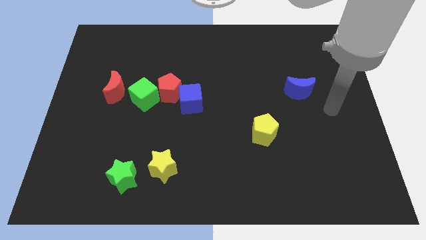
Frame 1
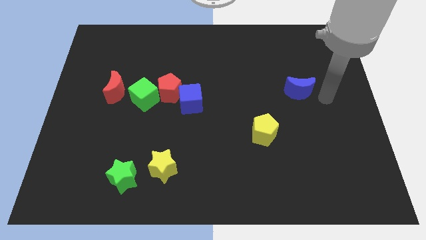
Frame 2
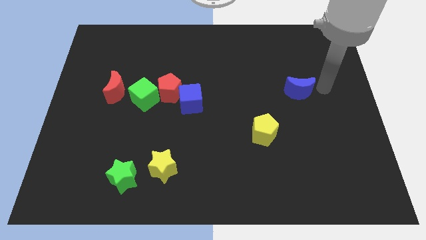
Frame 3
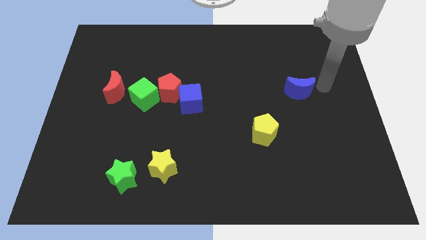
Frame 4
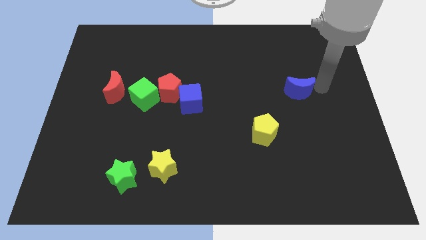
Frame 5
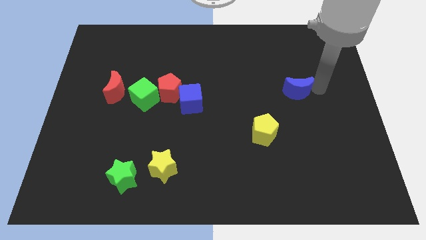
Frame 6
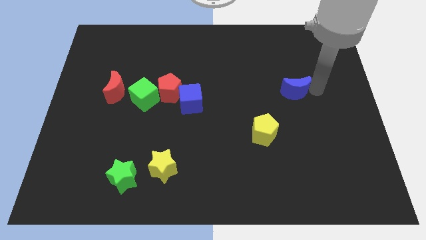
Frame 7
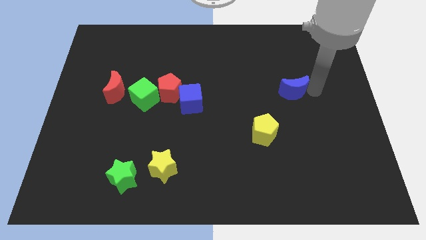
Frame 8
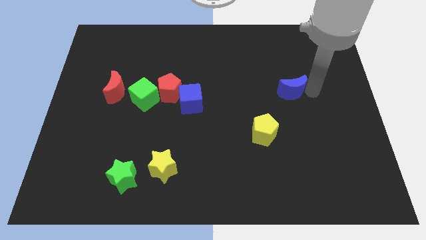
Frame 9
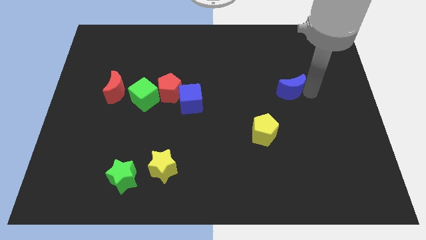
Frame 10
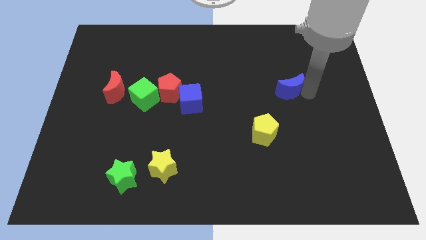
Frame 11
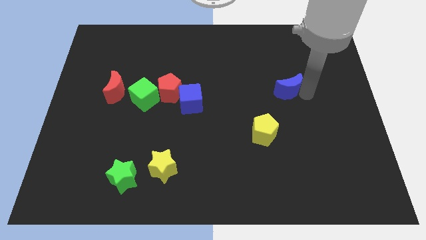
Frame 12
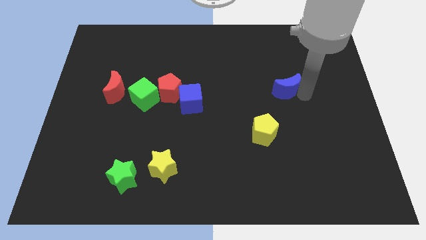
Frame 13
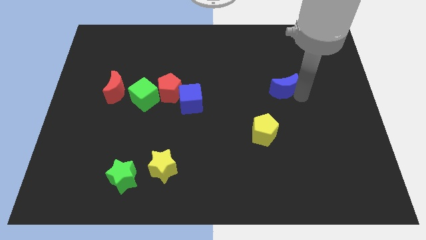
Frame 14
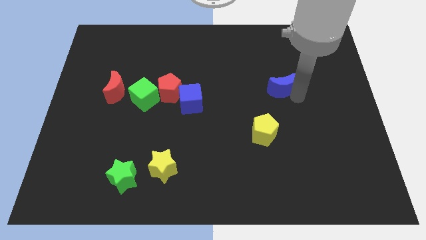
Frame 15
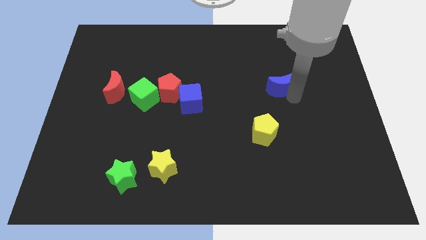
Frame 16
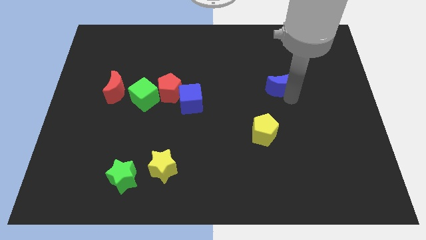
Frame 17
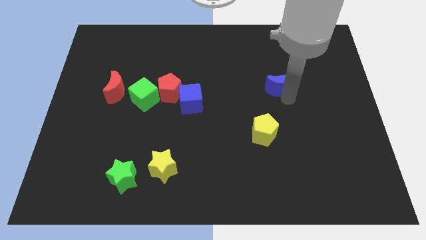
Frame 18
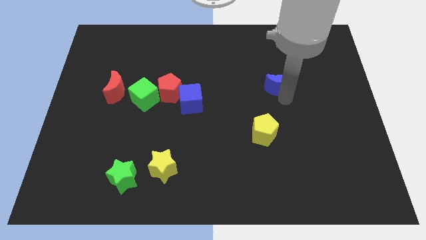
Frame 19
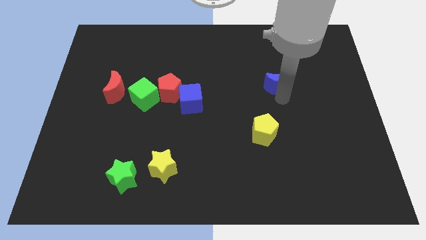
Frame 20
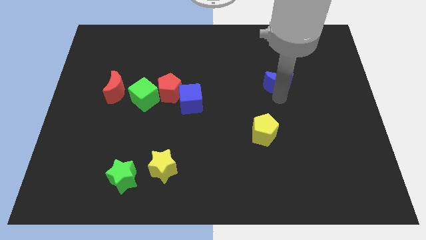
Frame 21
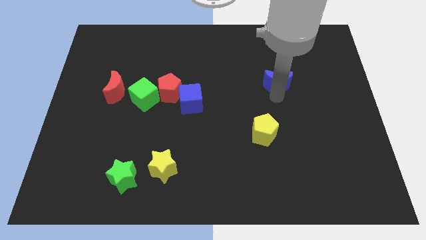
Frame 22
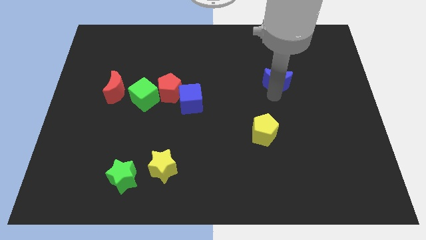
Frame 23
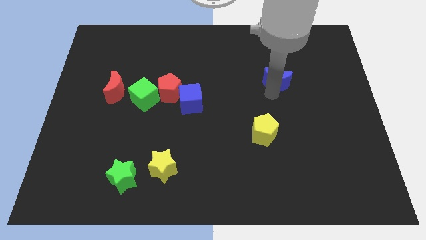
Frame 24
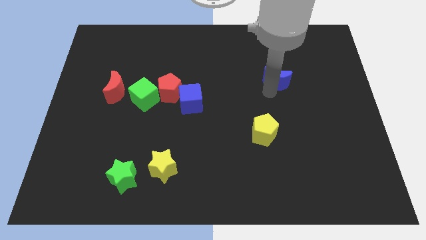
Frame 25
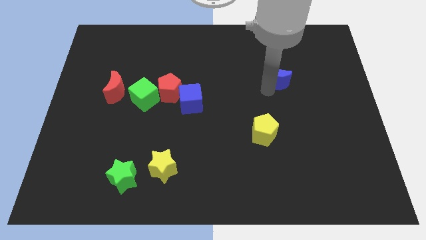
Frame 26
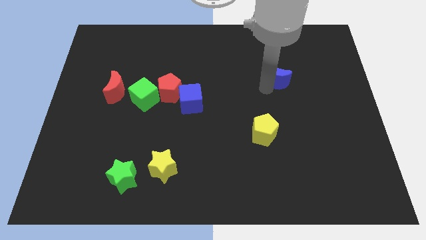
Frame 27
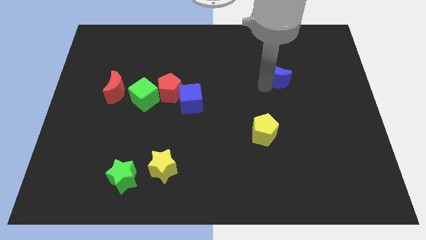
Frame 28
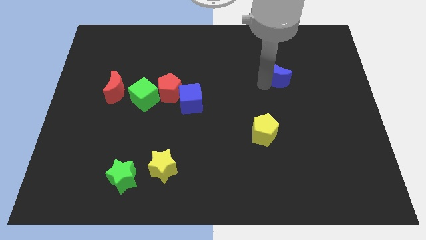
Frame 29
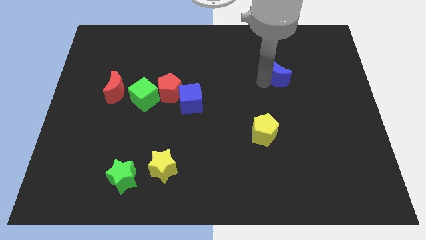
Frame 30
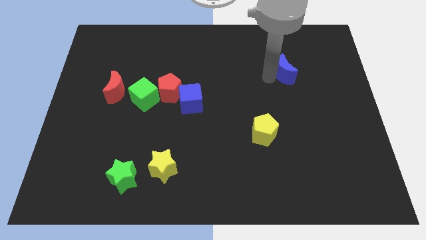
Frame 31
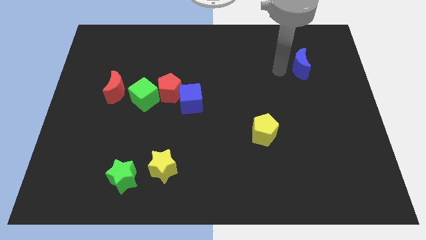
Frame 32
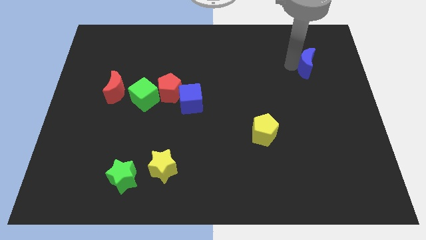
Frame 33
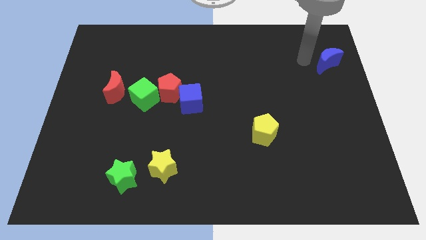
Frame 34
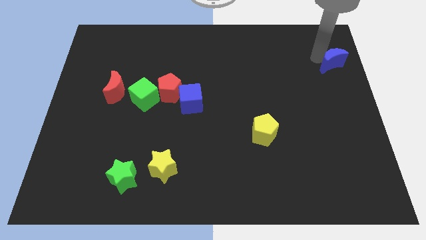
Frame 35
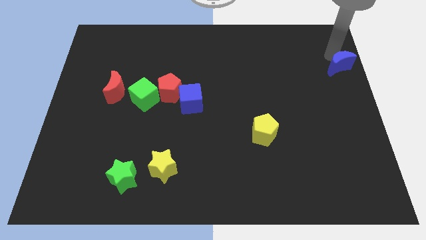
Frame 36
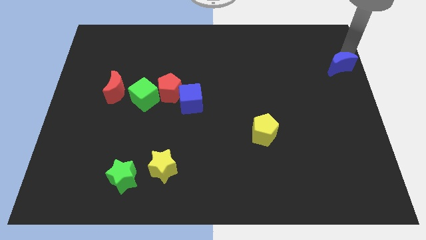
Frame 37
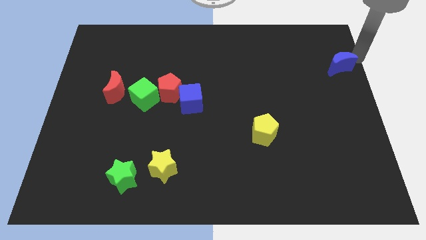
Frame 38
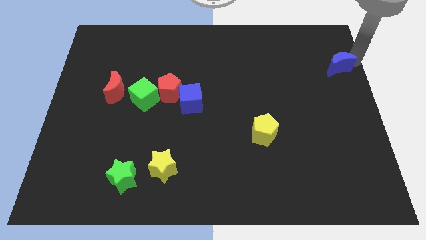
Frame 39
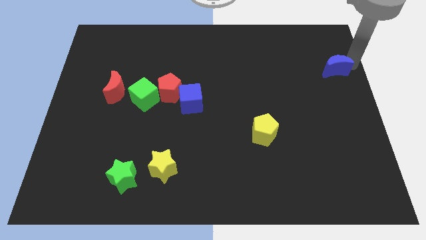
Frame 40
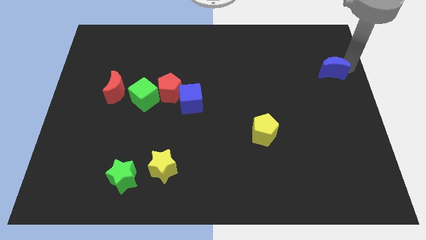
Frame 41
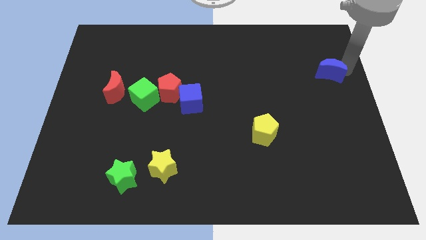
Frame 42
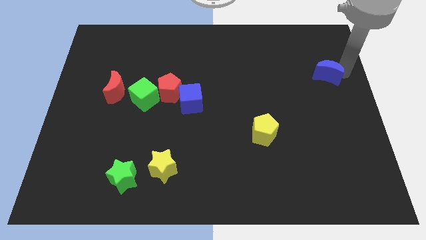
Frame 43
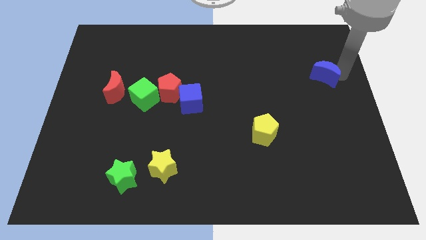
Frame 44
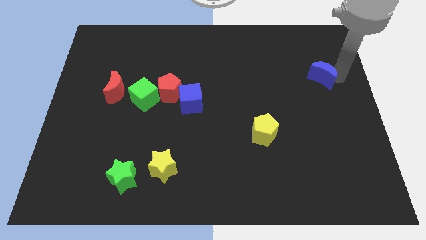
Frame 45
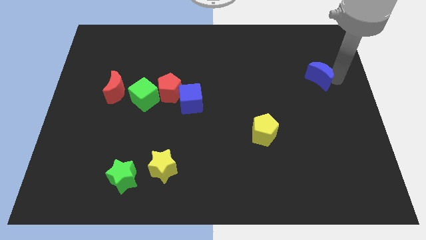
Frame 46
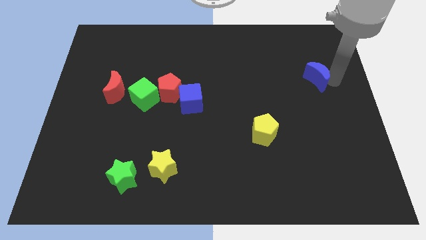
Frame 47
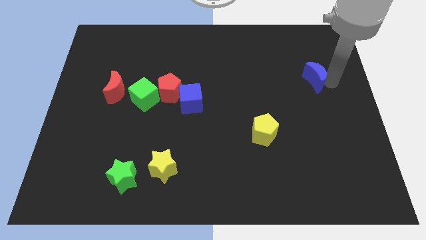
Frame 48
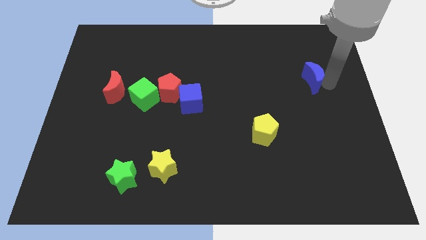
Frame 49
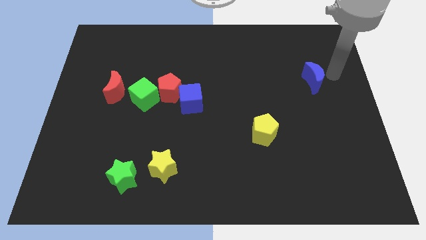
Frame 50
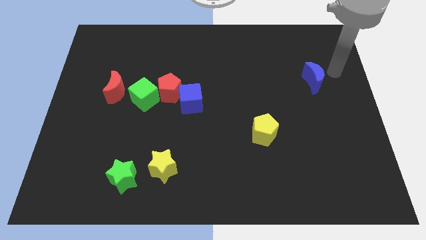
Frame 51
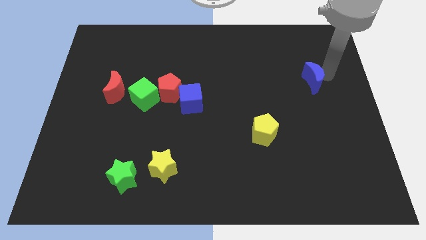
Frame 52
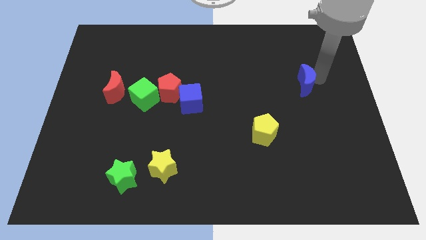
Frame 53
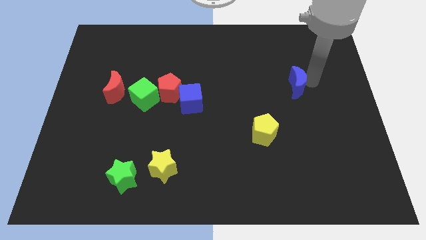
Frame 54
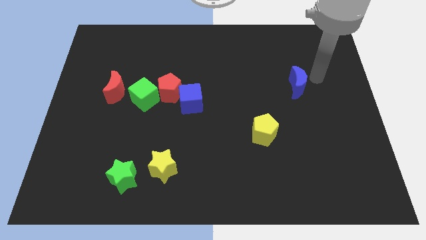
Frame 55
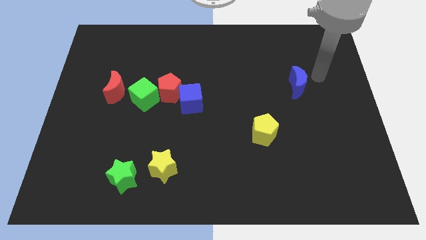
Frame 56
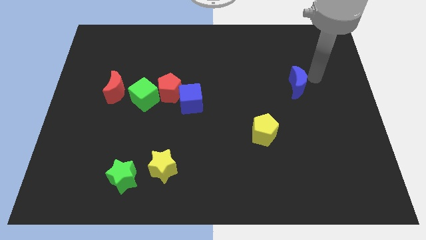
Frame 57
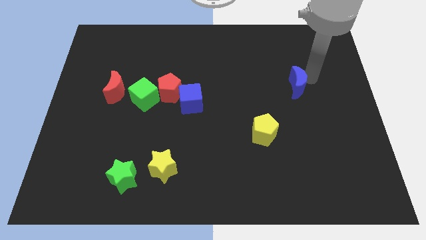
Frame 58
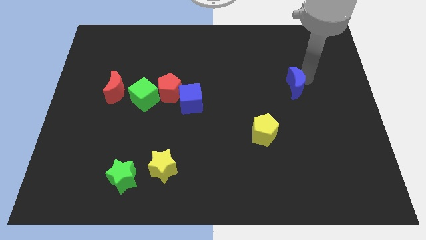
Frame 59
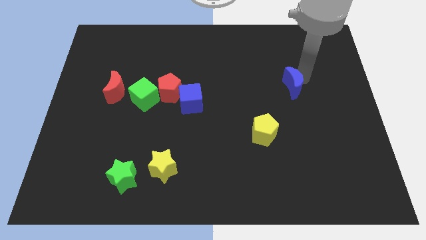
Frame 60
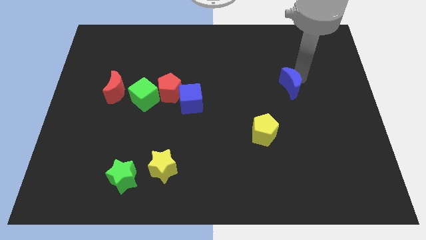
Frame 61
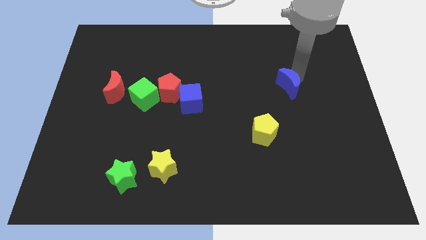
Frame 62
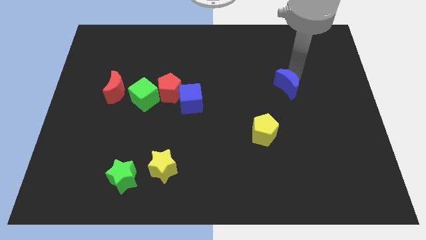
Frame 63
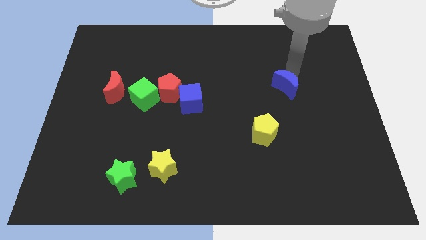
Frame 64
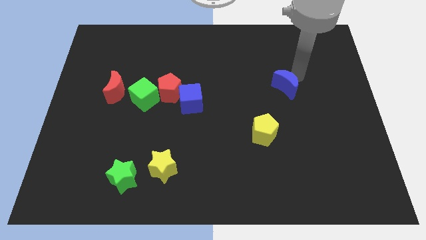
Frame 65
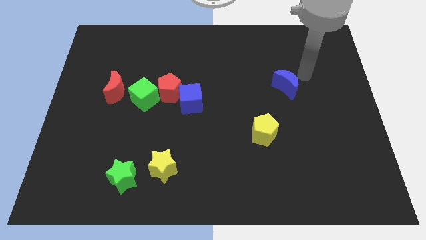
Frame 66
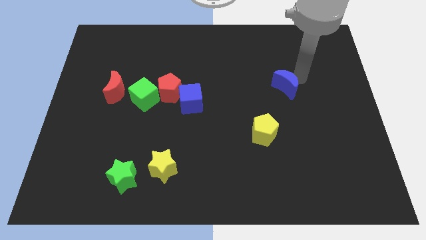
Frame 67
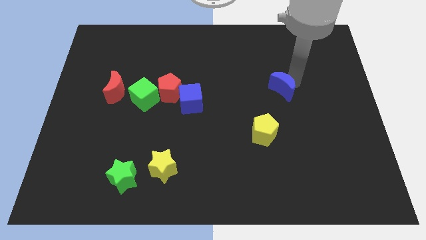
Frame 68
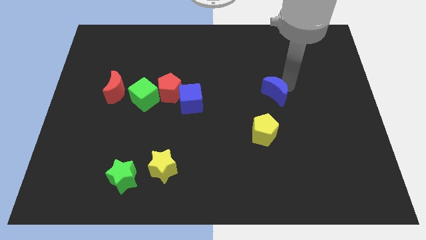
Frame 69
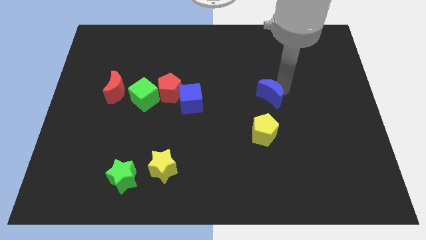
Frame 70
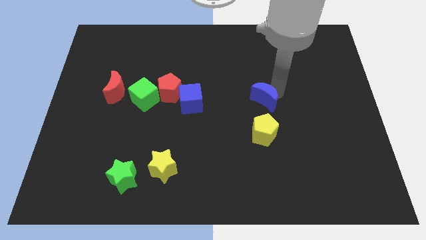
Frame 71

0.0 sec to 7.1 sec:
slide the blue moon downwards and left a little

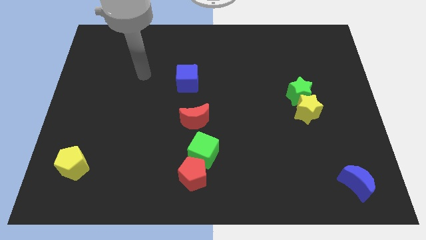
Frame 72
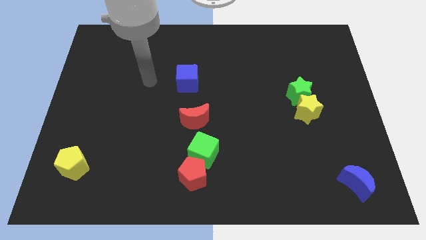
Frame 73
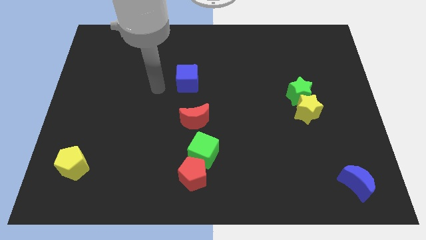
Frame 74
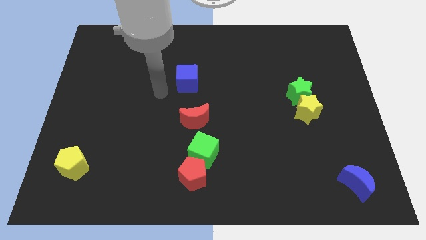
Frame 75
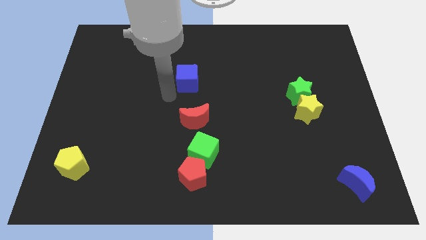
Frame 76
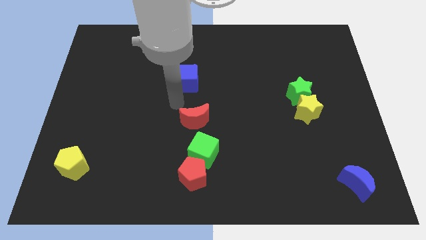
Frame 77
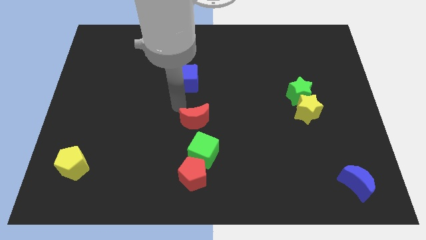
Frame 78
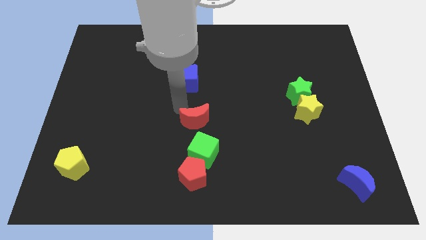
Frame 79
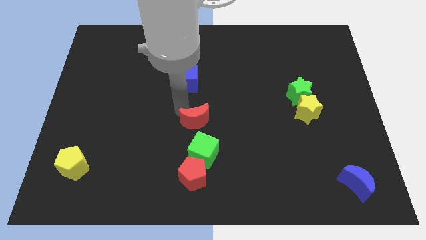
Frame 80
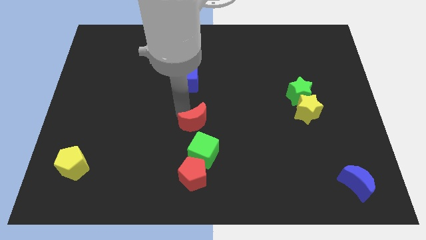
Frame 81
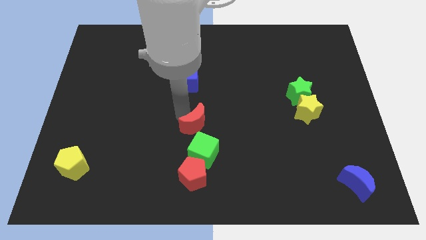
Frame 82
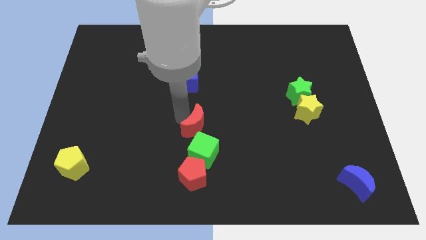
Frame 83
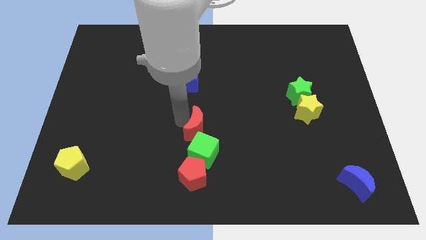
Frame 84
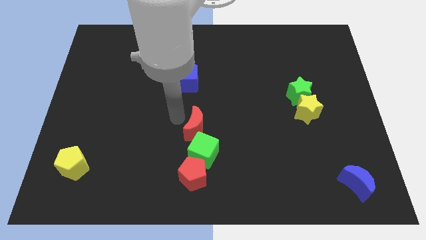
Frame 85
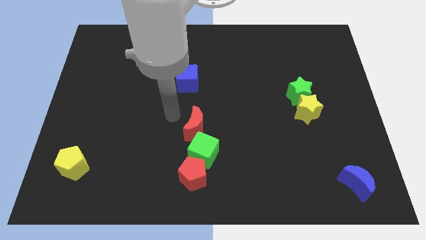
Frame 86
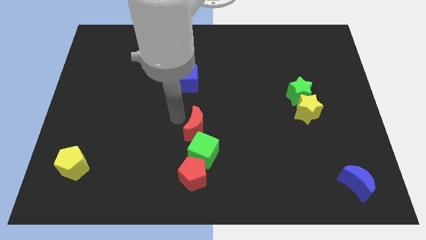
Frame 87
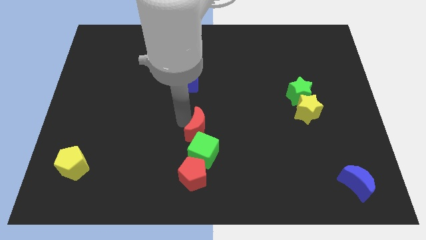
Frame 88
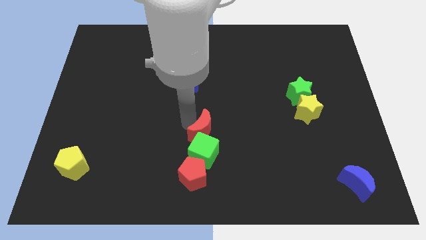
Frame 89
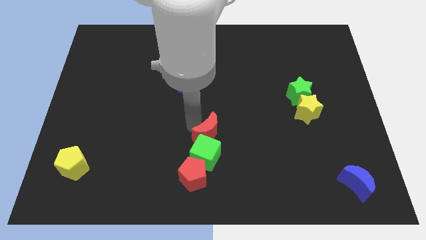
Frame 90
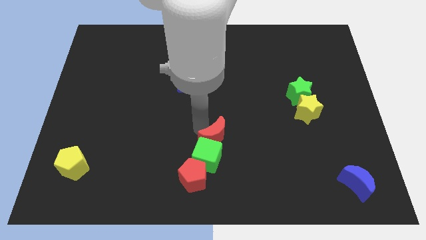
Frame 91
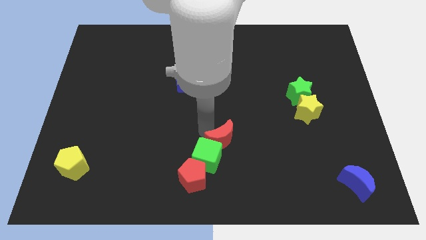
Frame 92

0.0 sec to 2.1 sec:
slightly slide the red moon down and then to the right
